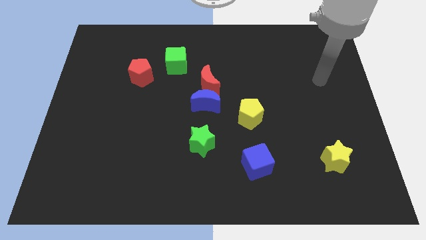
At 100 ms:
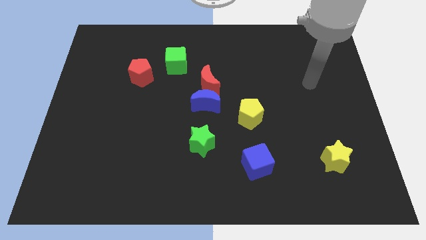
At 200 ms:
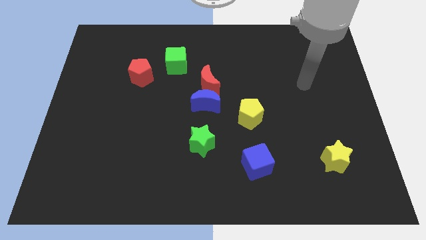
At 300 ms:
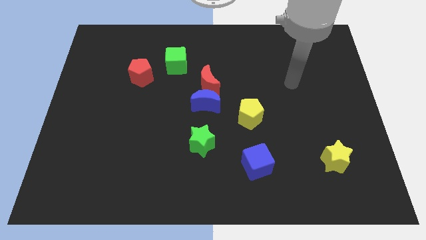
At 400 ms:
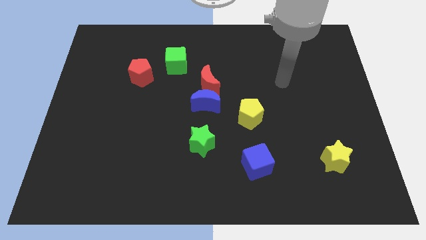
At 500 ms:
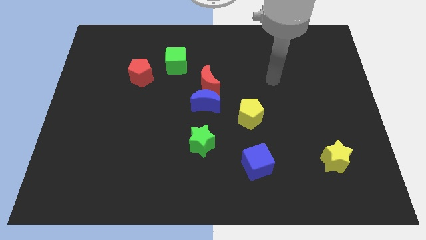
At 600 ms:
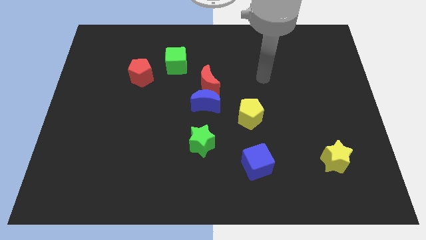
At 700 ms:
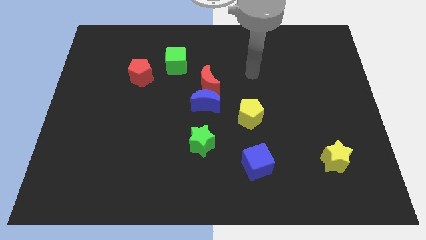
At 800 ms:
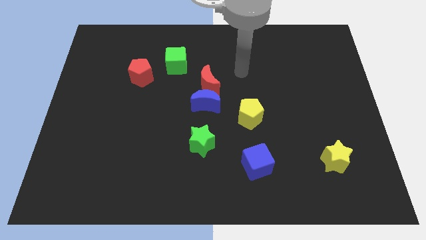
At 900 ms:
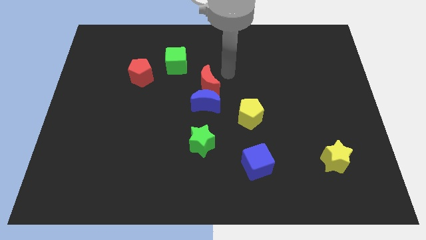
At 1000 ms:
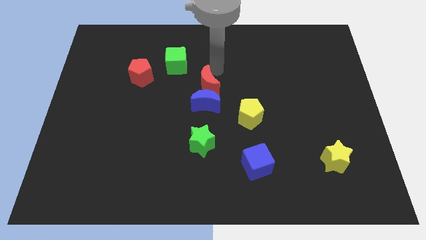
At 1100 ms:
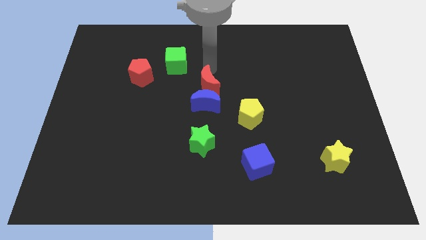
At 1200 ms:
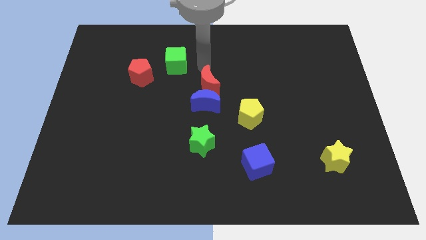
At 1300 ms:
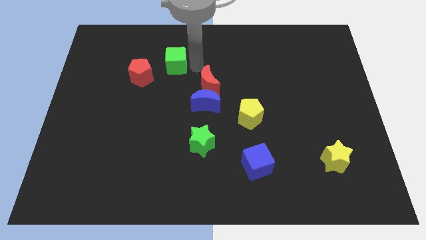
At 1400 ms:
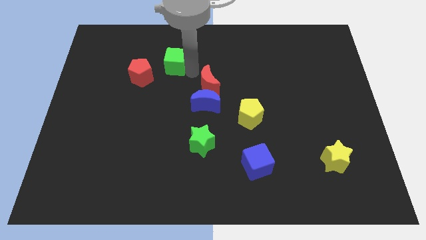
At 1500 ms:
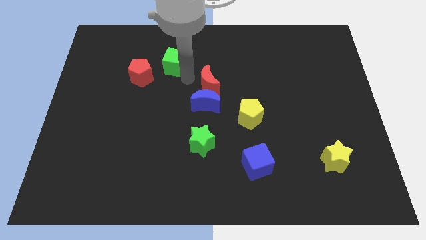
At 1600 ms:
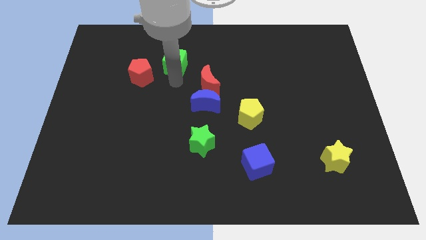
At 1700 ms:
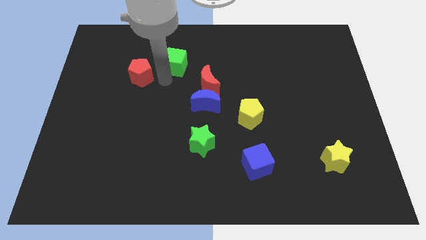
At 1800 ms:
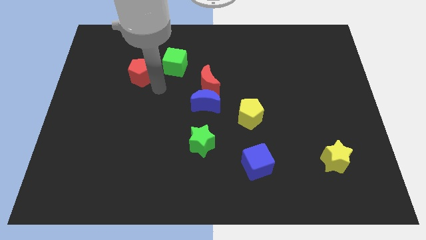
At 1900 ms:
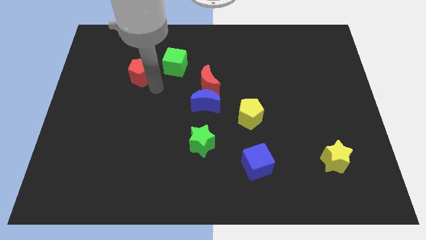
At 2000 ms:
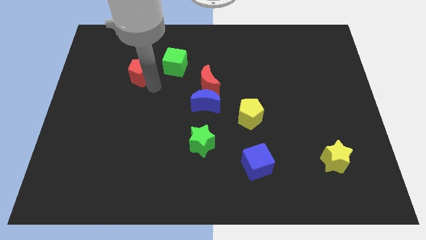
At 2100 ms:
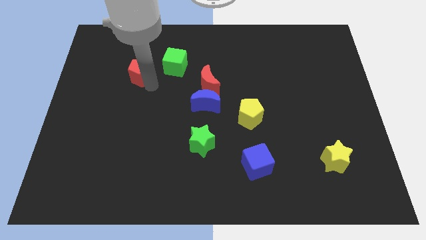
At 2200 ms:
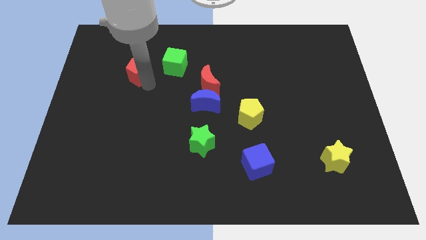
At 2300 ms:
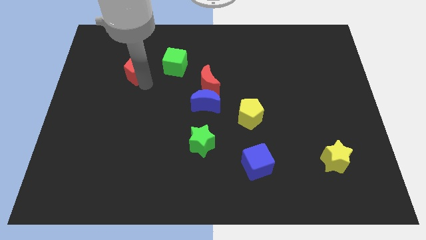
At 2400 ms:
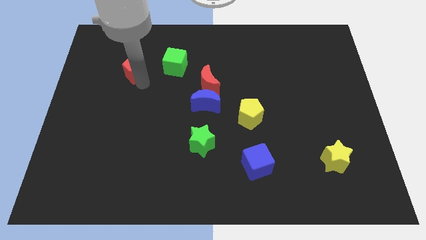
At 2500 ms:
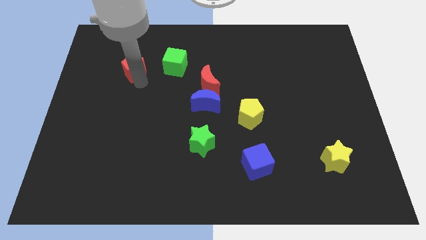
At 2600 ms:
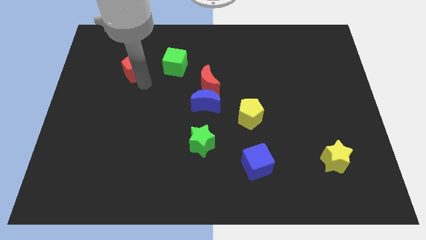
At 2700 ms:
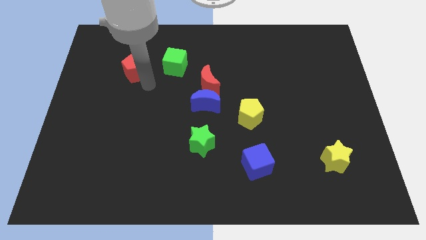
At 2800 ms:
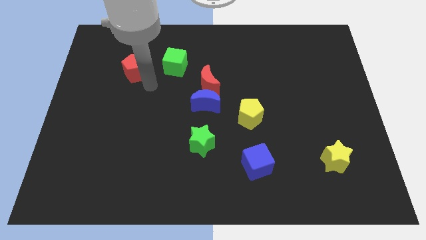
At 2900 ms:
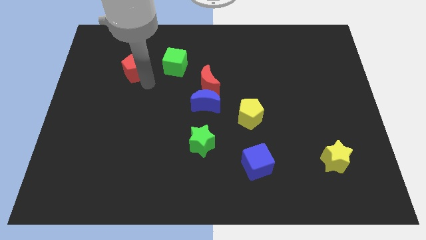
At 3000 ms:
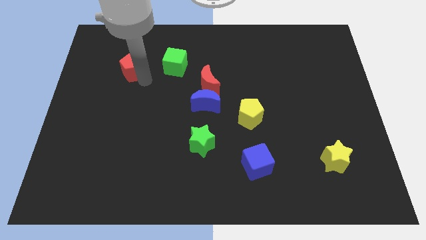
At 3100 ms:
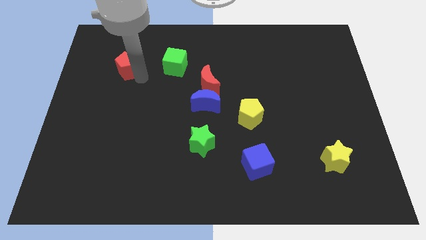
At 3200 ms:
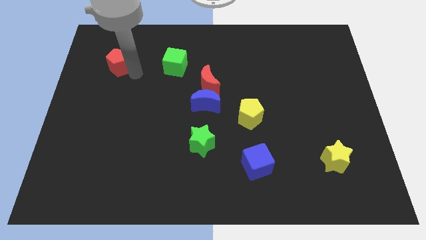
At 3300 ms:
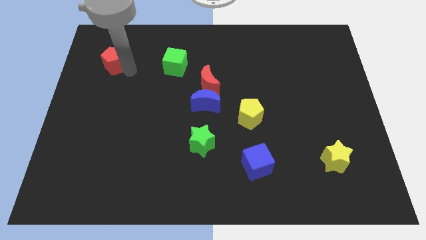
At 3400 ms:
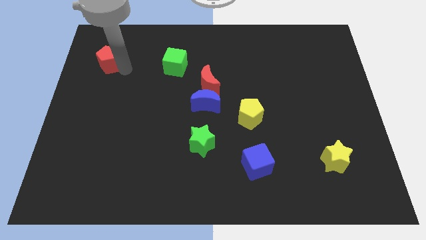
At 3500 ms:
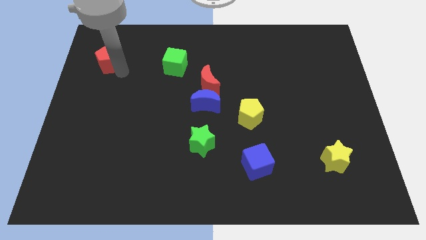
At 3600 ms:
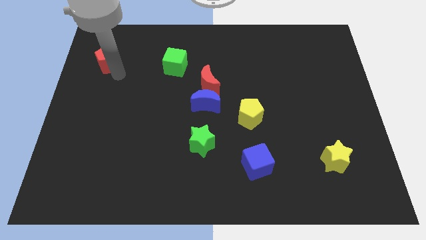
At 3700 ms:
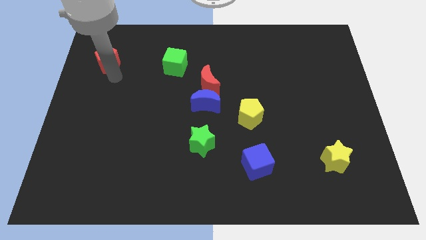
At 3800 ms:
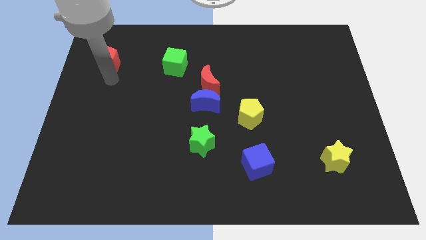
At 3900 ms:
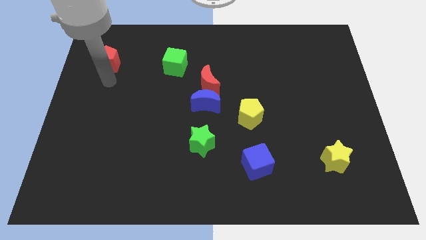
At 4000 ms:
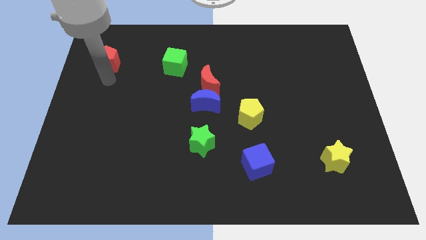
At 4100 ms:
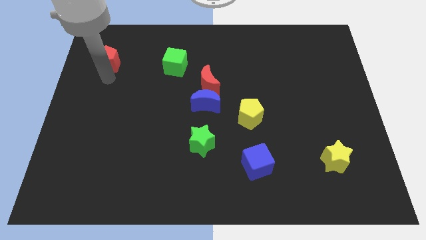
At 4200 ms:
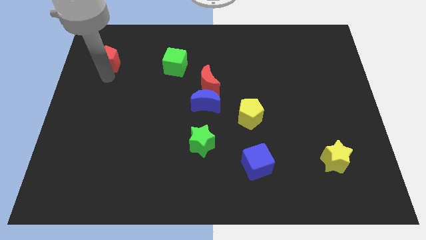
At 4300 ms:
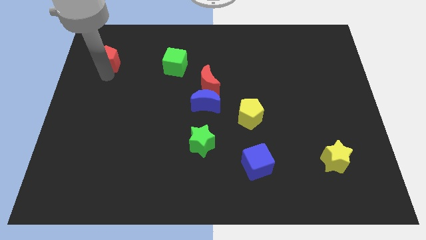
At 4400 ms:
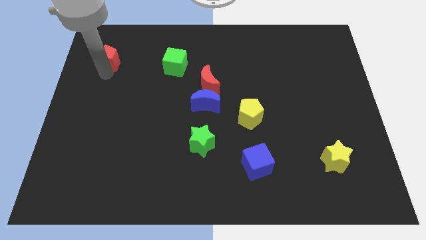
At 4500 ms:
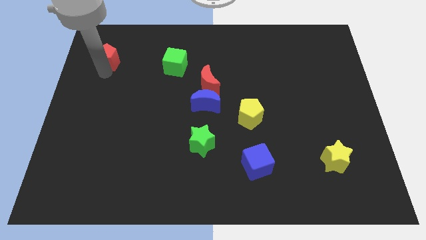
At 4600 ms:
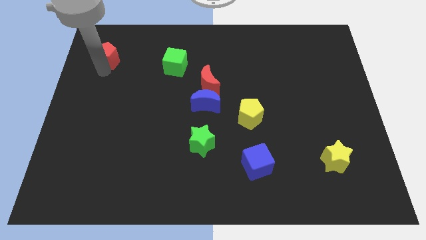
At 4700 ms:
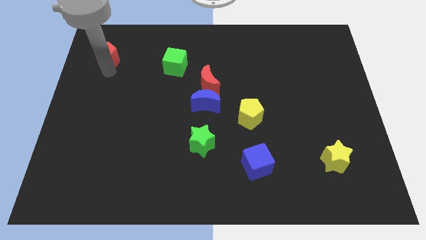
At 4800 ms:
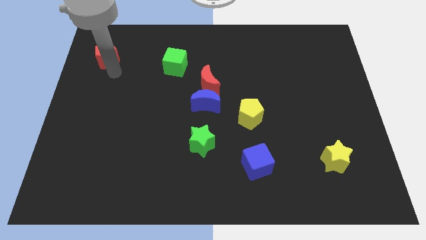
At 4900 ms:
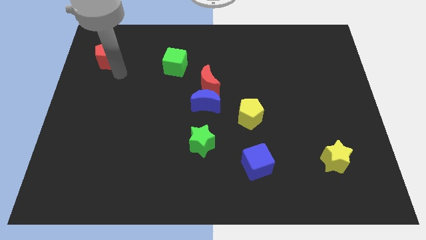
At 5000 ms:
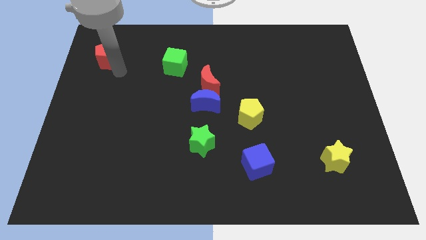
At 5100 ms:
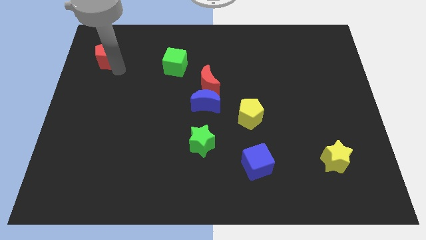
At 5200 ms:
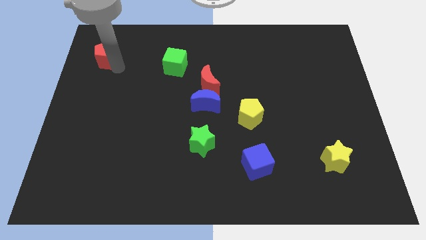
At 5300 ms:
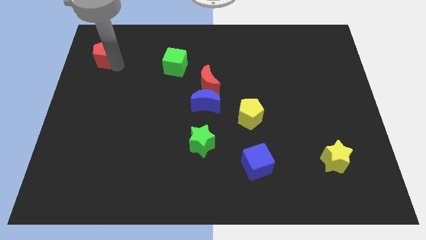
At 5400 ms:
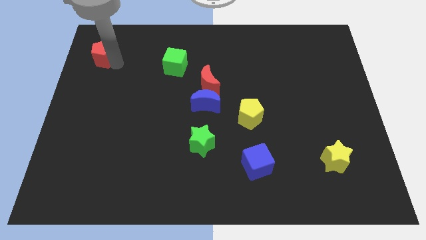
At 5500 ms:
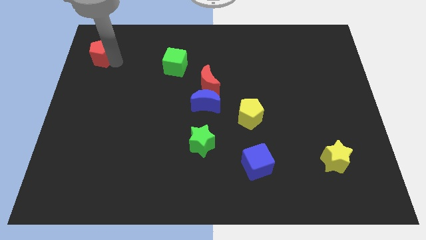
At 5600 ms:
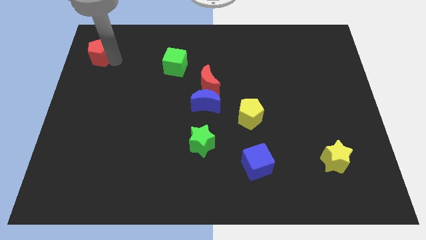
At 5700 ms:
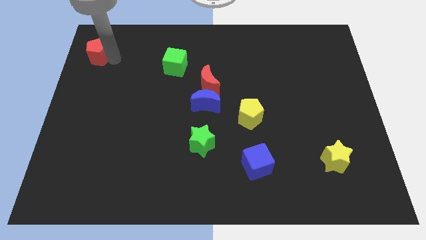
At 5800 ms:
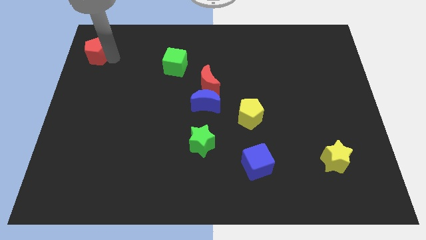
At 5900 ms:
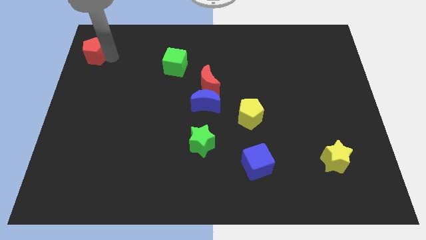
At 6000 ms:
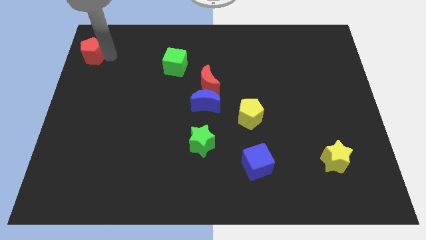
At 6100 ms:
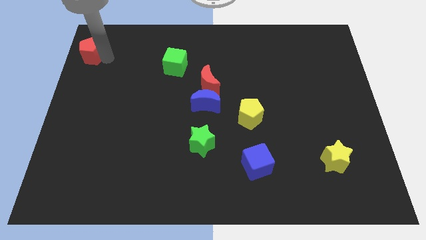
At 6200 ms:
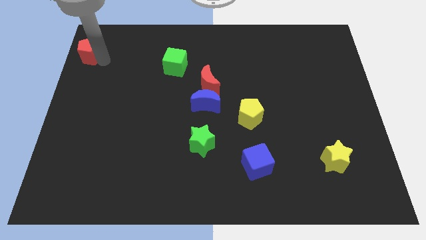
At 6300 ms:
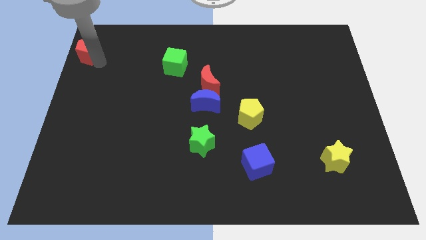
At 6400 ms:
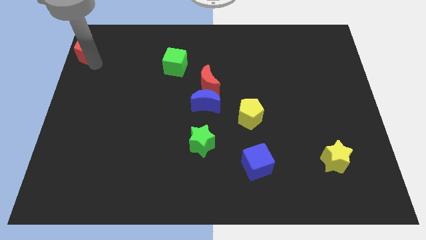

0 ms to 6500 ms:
move the red pentagon to the top left

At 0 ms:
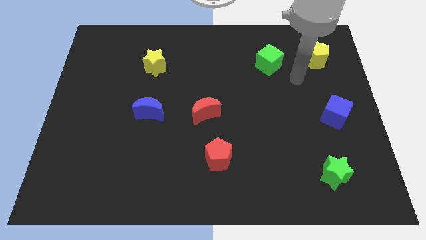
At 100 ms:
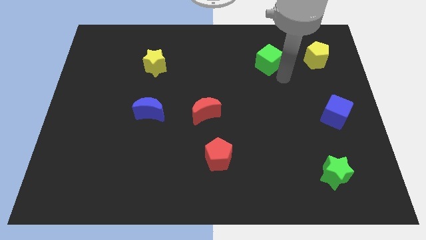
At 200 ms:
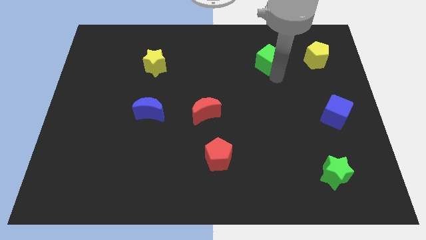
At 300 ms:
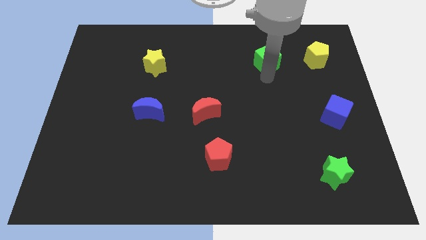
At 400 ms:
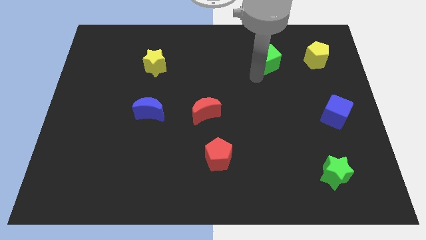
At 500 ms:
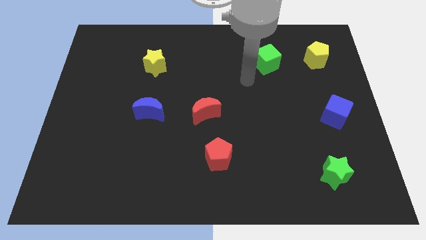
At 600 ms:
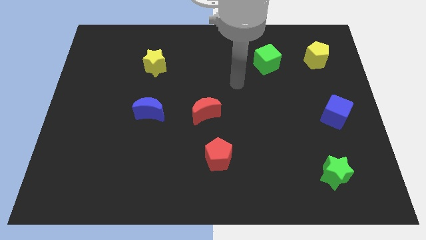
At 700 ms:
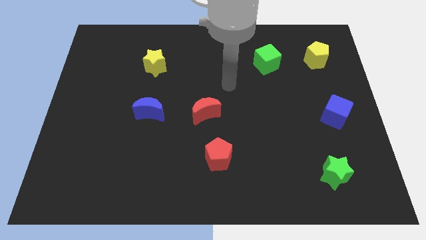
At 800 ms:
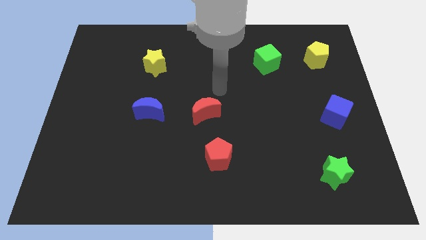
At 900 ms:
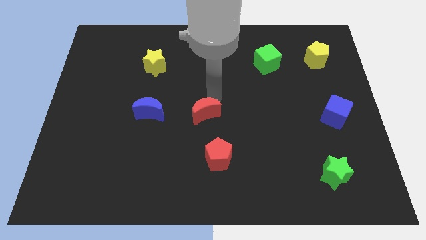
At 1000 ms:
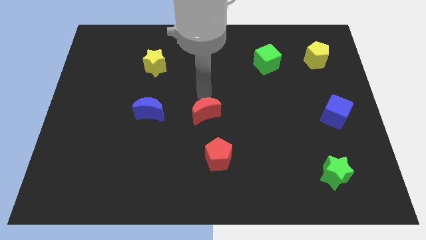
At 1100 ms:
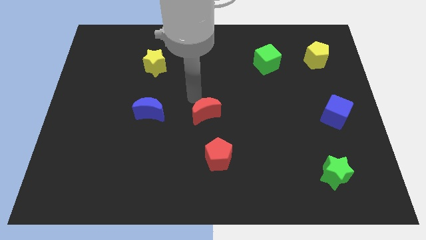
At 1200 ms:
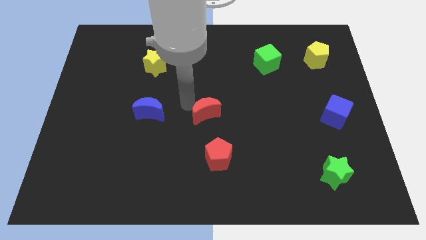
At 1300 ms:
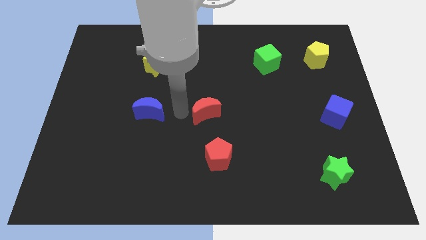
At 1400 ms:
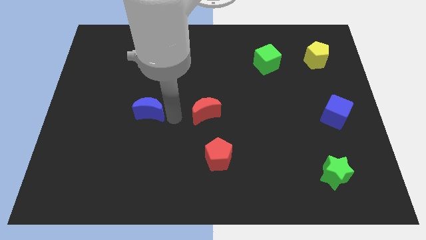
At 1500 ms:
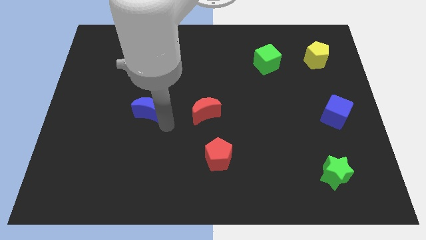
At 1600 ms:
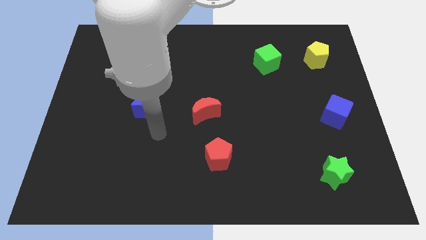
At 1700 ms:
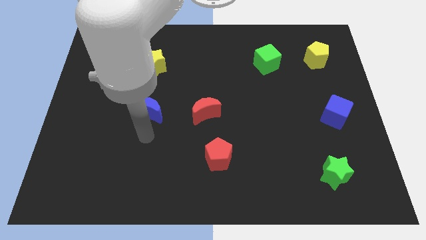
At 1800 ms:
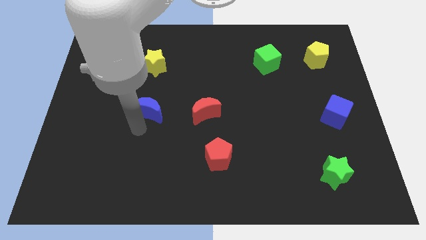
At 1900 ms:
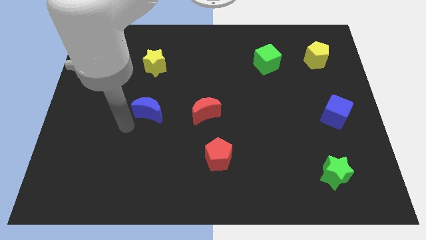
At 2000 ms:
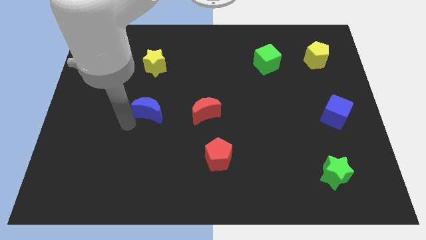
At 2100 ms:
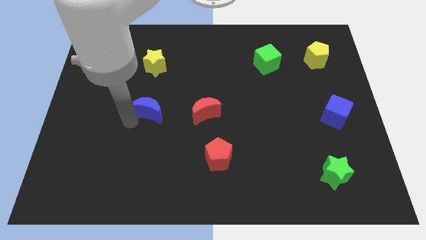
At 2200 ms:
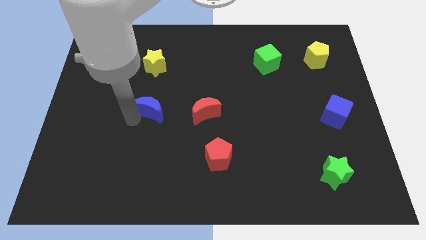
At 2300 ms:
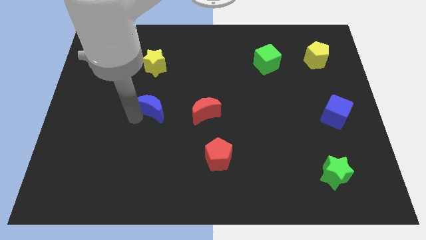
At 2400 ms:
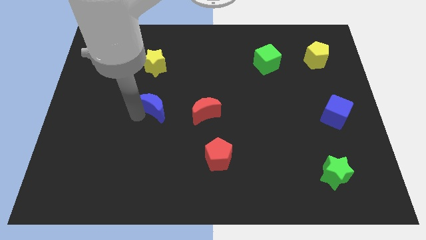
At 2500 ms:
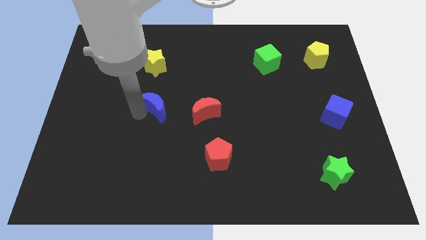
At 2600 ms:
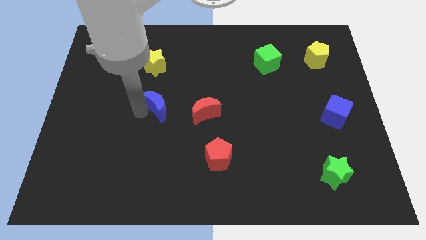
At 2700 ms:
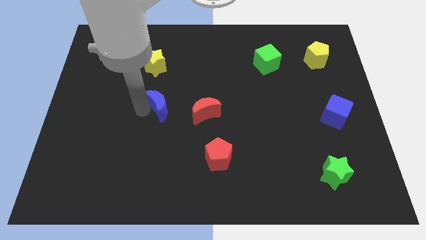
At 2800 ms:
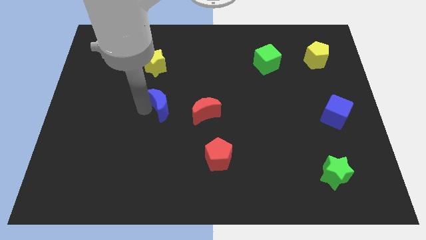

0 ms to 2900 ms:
slide the blue moon to the center of the board
